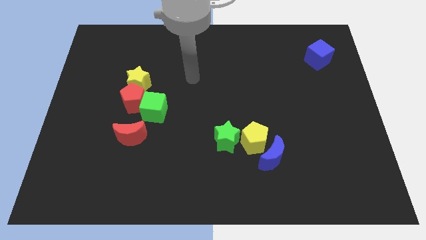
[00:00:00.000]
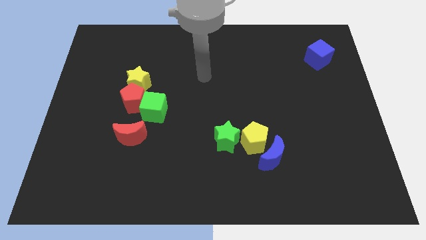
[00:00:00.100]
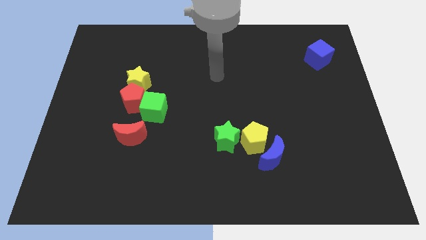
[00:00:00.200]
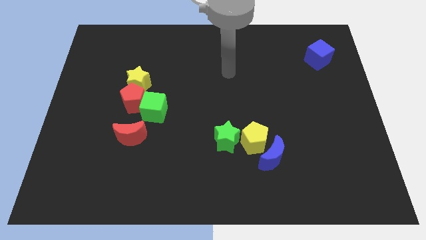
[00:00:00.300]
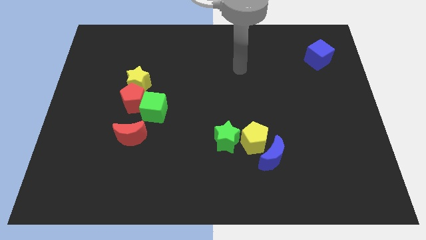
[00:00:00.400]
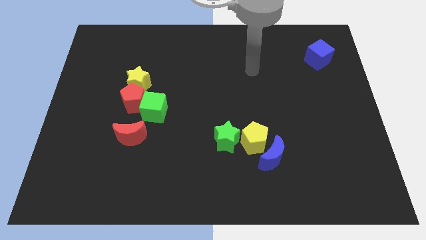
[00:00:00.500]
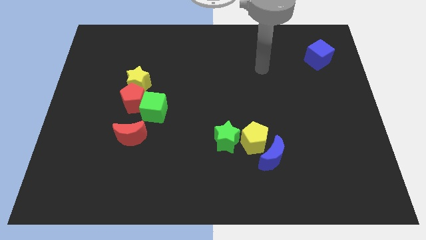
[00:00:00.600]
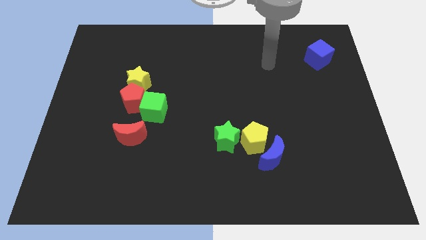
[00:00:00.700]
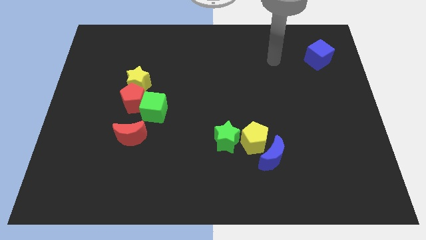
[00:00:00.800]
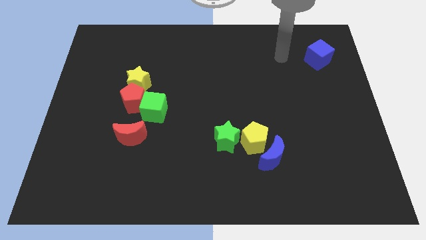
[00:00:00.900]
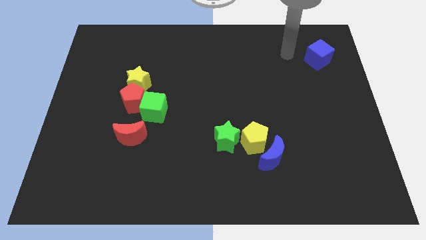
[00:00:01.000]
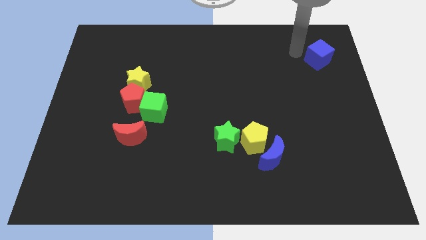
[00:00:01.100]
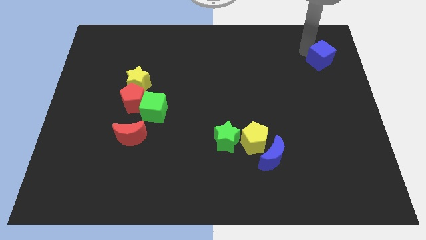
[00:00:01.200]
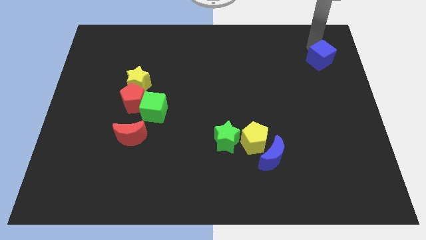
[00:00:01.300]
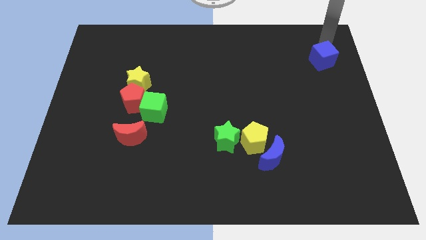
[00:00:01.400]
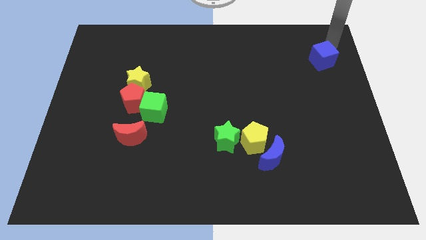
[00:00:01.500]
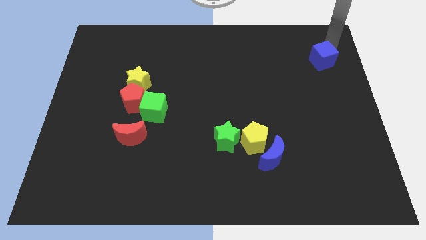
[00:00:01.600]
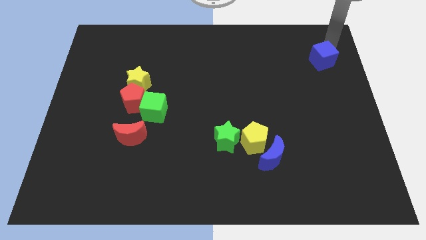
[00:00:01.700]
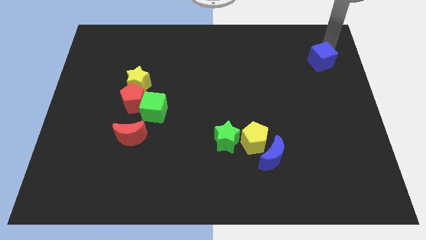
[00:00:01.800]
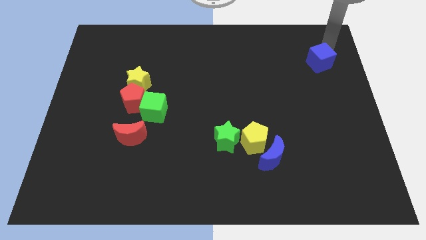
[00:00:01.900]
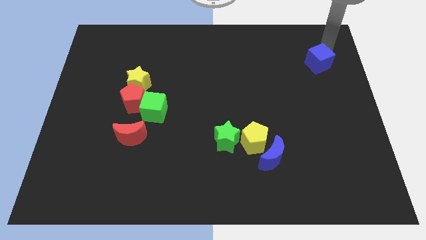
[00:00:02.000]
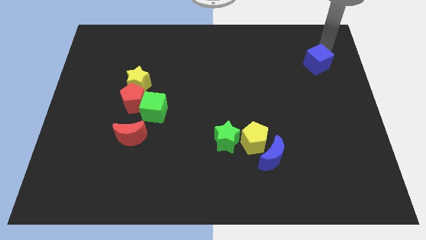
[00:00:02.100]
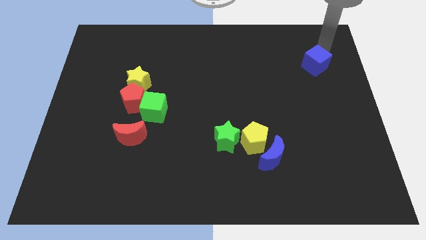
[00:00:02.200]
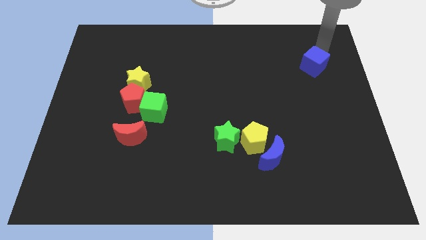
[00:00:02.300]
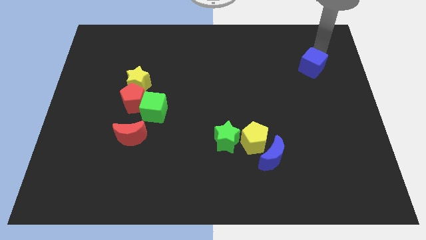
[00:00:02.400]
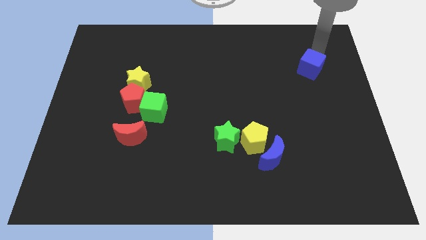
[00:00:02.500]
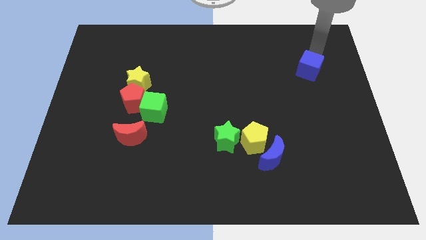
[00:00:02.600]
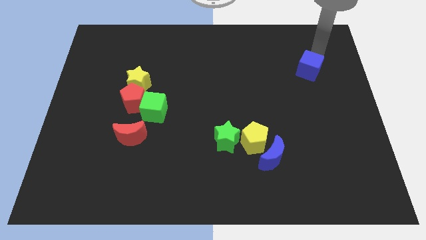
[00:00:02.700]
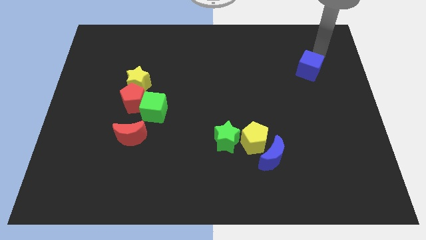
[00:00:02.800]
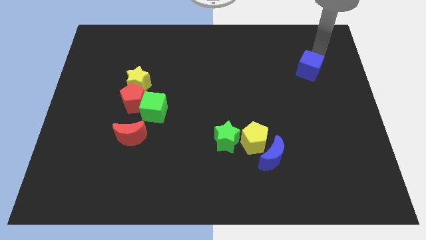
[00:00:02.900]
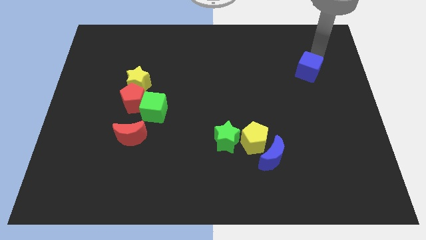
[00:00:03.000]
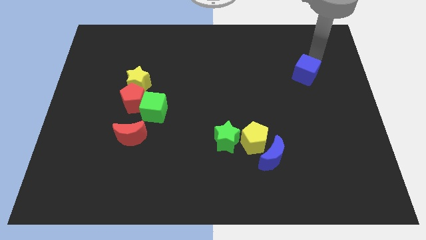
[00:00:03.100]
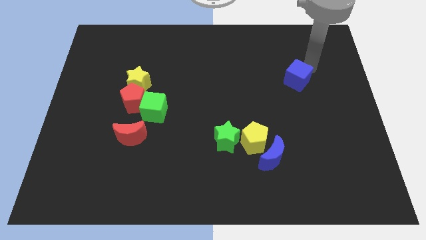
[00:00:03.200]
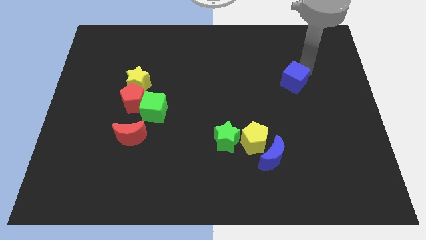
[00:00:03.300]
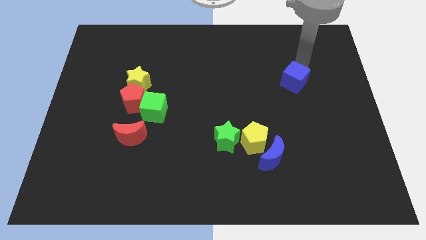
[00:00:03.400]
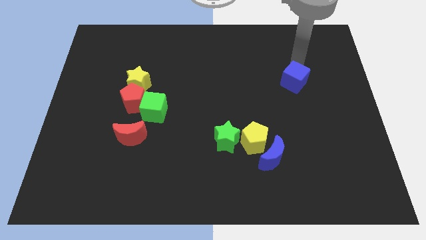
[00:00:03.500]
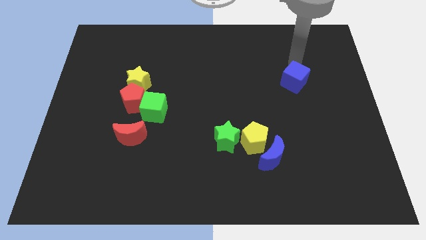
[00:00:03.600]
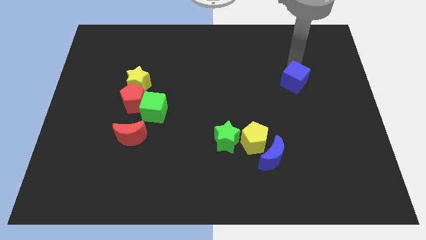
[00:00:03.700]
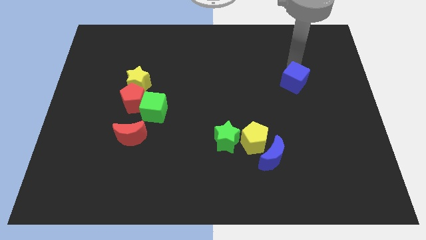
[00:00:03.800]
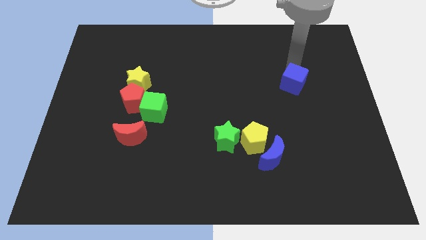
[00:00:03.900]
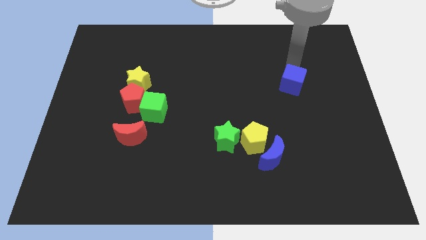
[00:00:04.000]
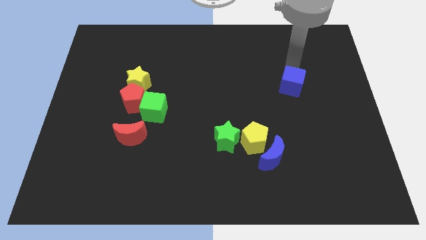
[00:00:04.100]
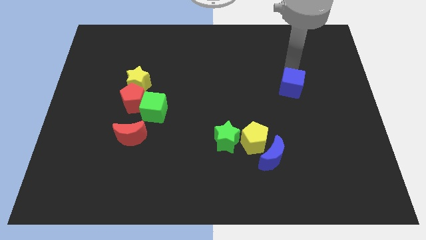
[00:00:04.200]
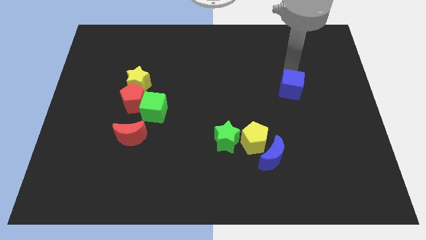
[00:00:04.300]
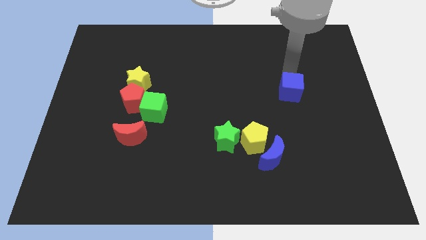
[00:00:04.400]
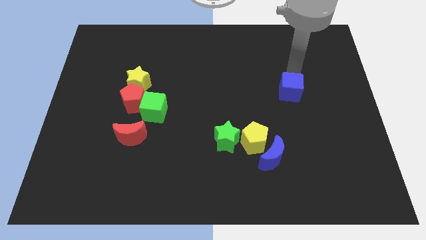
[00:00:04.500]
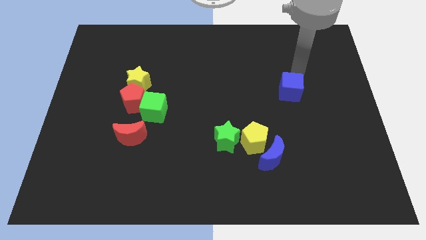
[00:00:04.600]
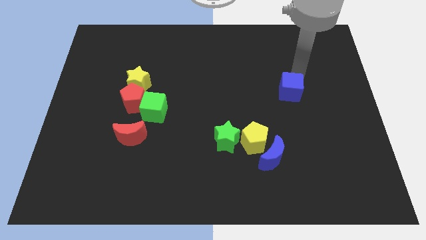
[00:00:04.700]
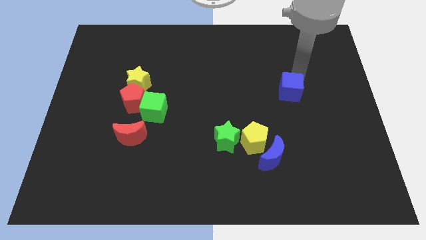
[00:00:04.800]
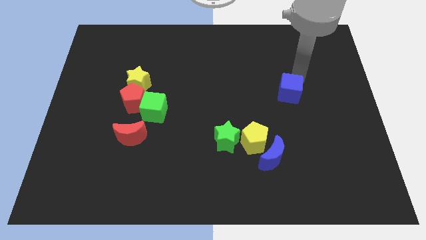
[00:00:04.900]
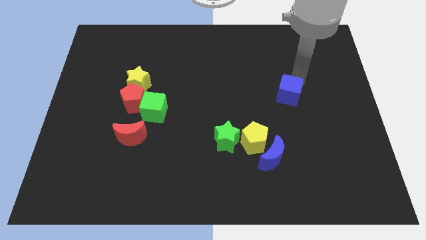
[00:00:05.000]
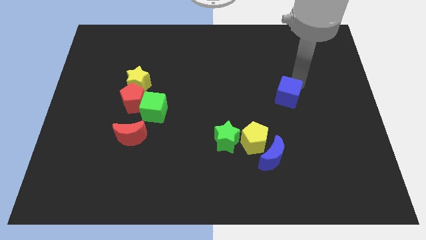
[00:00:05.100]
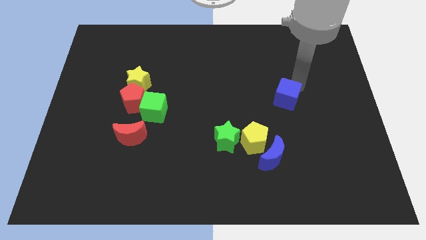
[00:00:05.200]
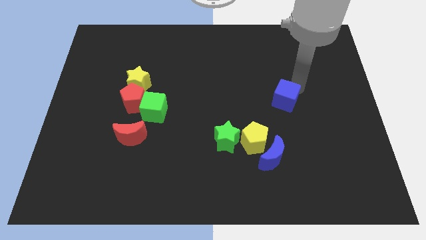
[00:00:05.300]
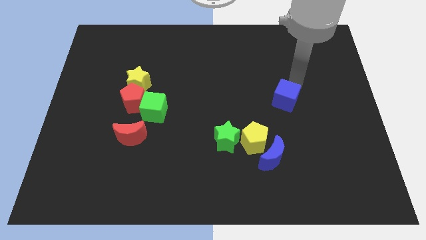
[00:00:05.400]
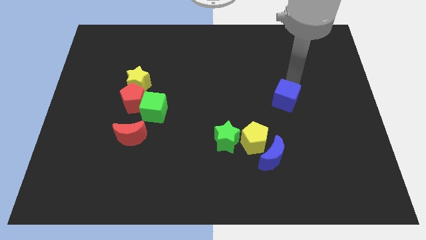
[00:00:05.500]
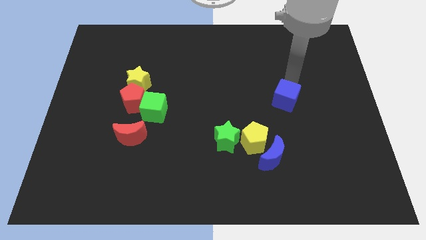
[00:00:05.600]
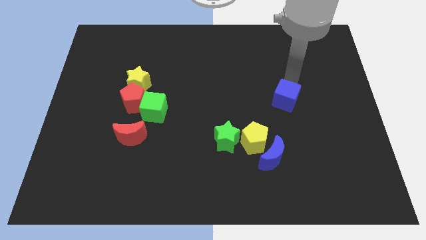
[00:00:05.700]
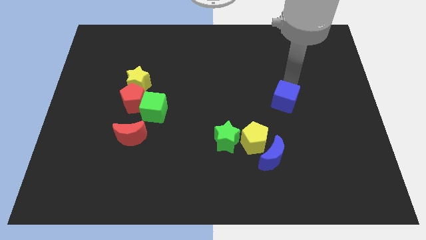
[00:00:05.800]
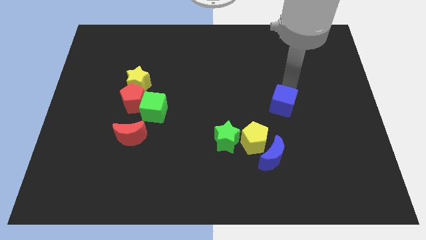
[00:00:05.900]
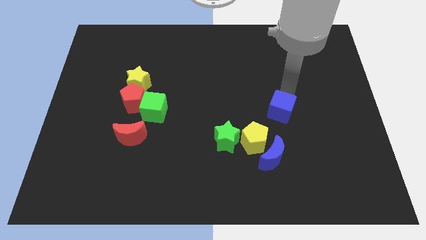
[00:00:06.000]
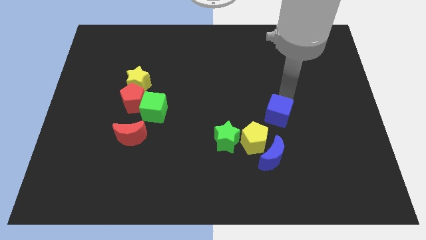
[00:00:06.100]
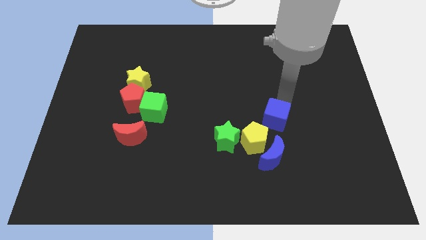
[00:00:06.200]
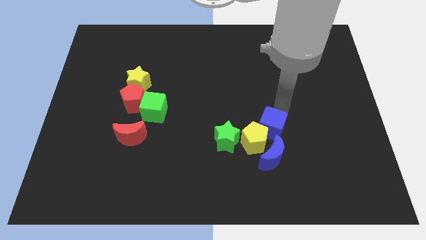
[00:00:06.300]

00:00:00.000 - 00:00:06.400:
put the blue cube close to the yellow pentagon

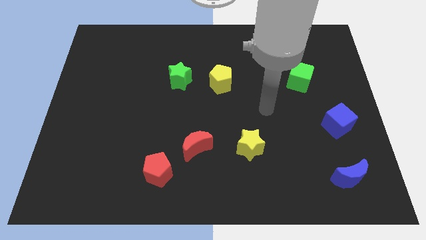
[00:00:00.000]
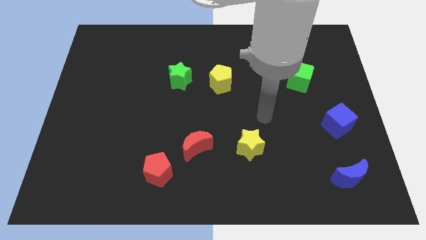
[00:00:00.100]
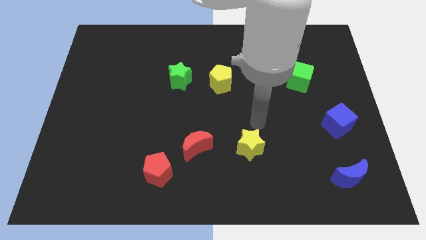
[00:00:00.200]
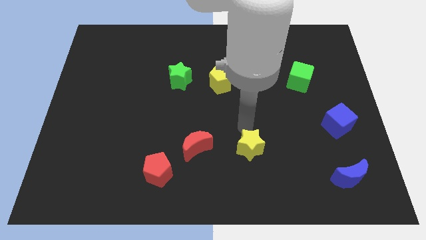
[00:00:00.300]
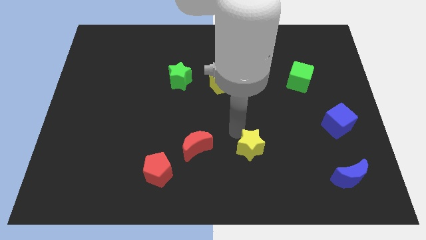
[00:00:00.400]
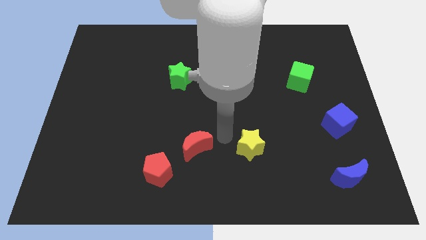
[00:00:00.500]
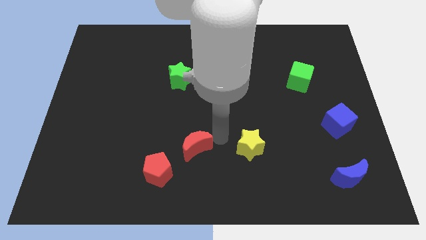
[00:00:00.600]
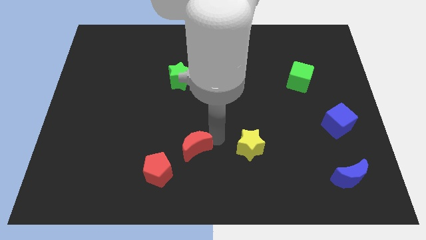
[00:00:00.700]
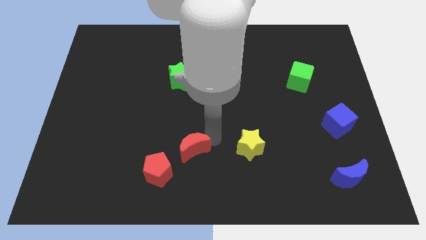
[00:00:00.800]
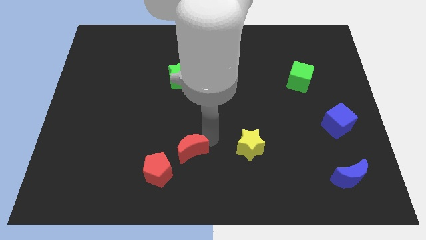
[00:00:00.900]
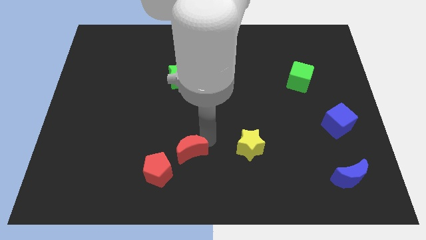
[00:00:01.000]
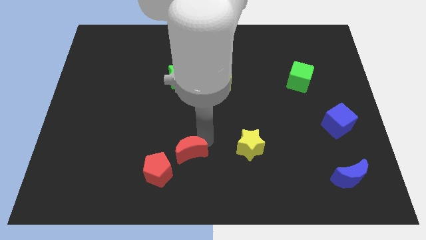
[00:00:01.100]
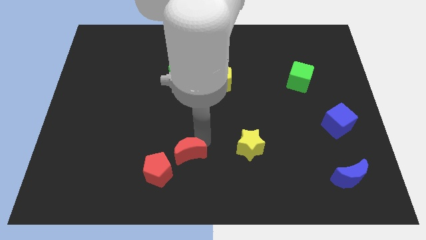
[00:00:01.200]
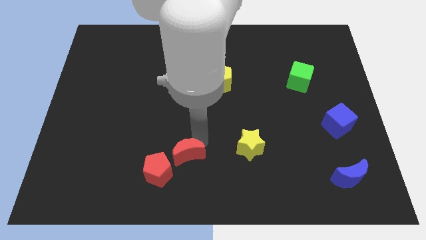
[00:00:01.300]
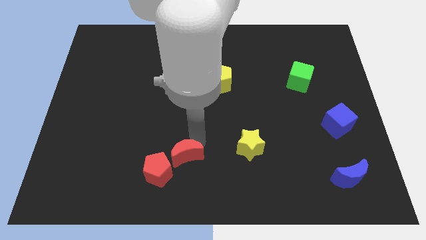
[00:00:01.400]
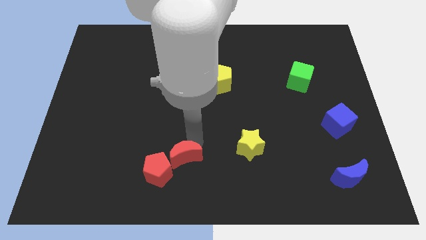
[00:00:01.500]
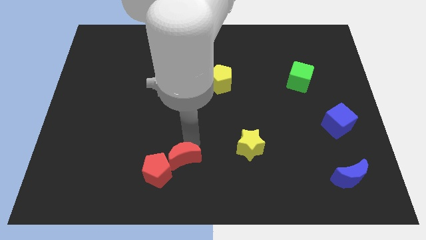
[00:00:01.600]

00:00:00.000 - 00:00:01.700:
put the red moon next to the red pentagon
